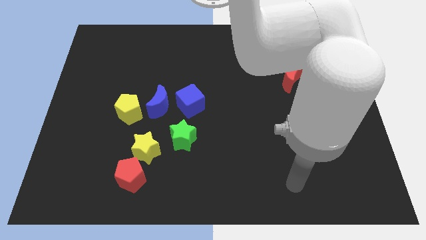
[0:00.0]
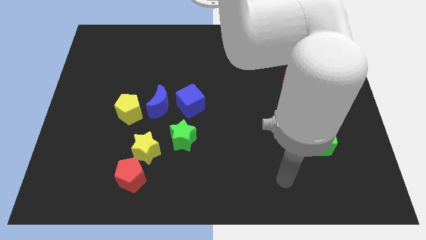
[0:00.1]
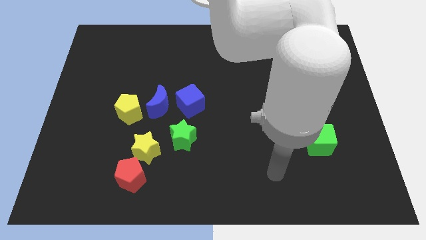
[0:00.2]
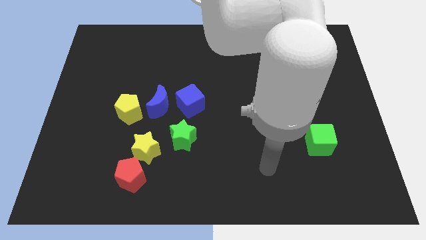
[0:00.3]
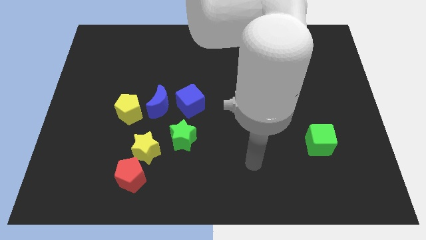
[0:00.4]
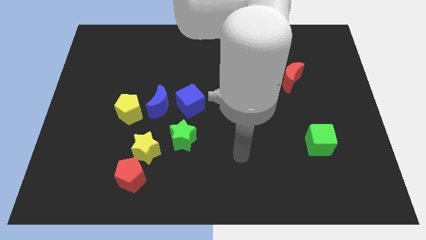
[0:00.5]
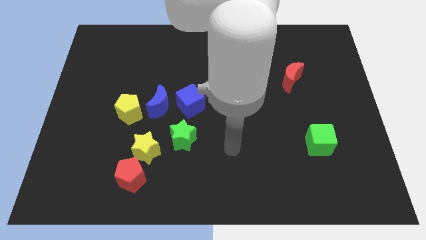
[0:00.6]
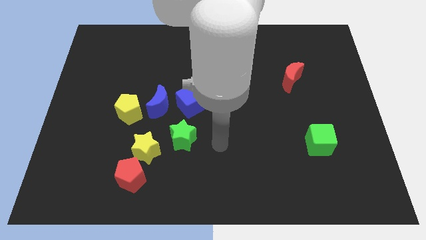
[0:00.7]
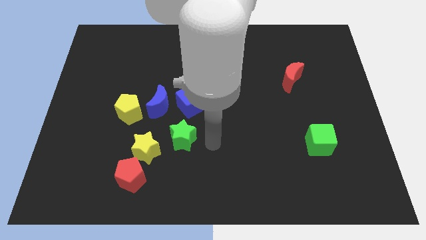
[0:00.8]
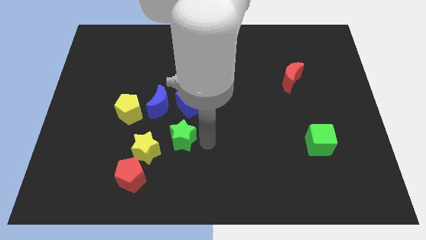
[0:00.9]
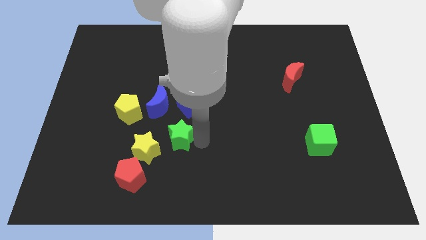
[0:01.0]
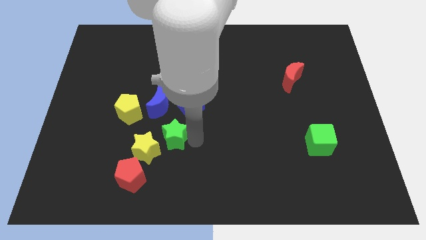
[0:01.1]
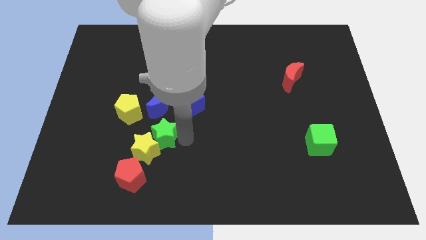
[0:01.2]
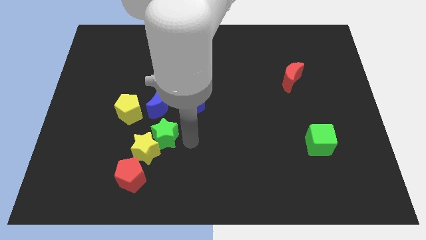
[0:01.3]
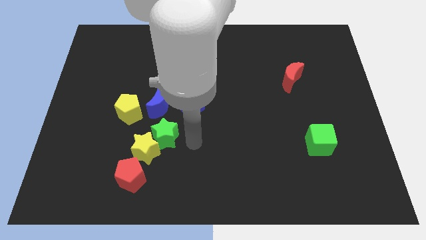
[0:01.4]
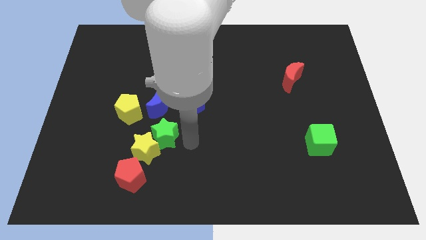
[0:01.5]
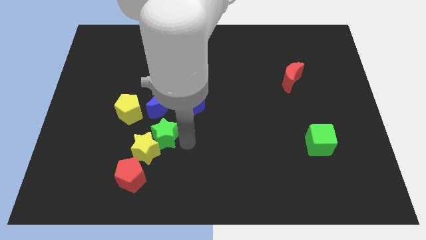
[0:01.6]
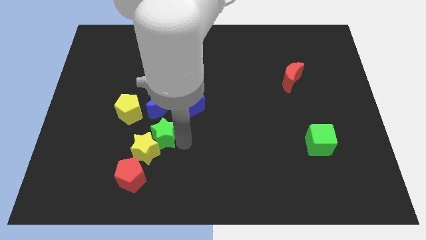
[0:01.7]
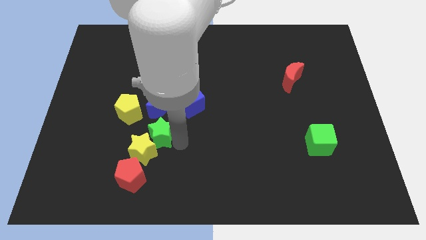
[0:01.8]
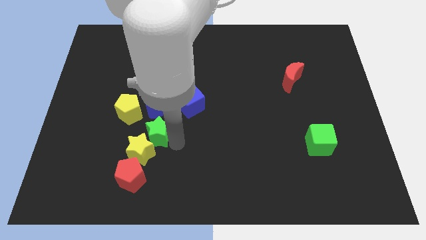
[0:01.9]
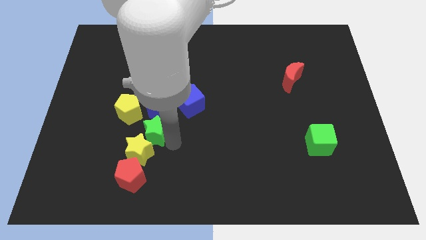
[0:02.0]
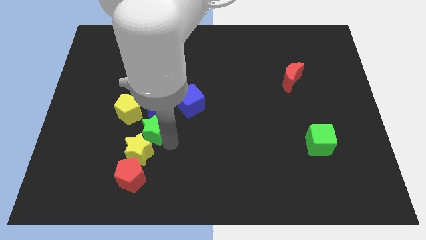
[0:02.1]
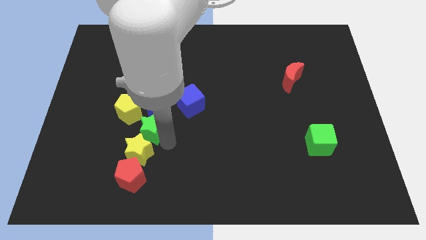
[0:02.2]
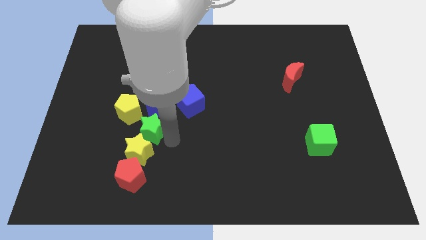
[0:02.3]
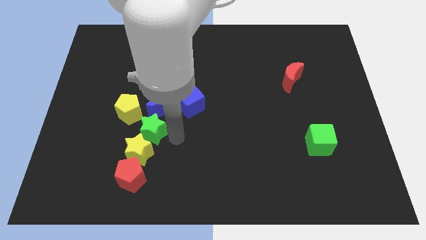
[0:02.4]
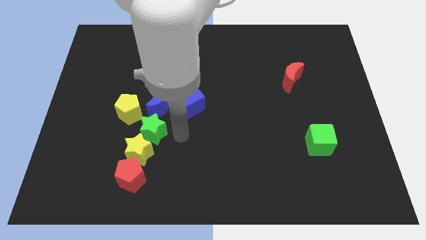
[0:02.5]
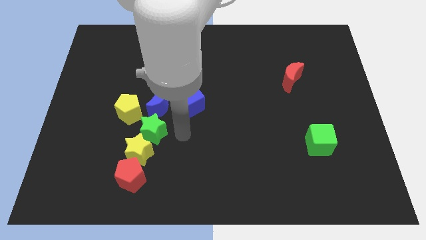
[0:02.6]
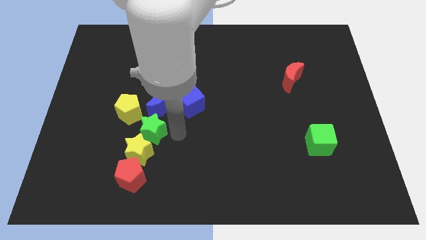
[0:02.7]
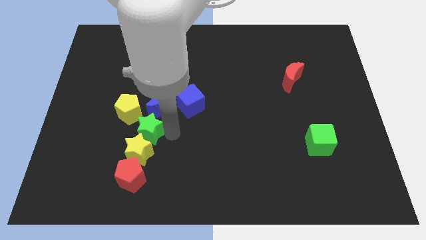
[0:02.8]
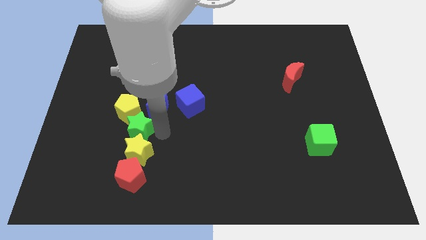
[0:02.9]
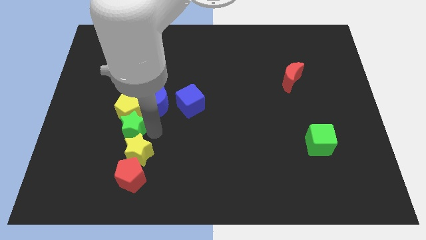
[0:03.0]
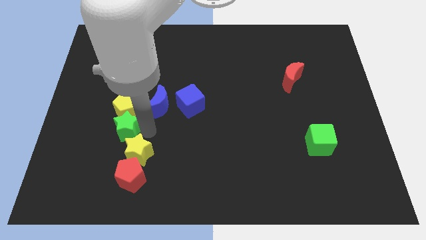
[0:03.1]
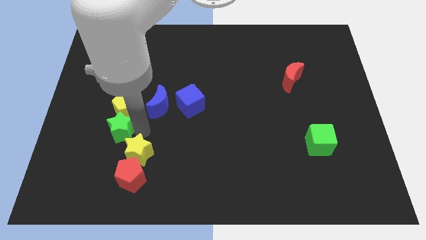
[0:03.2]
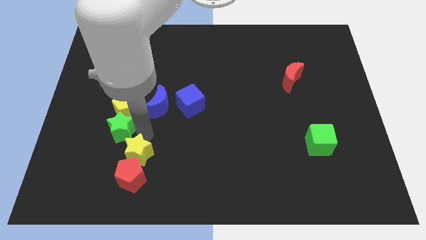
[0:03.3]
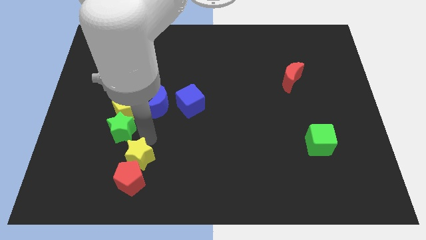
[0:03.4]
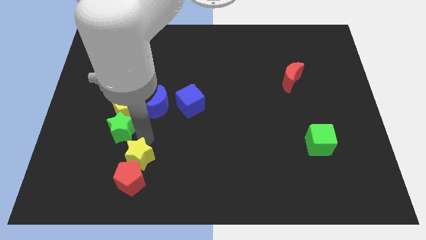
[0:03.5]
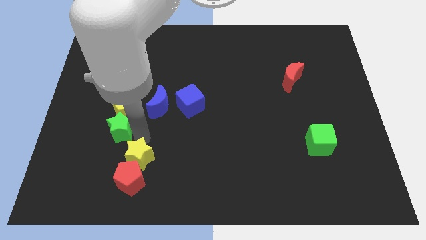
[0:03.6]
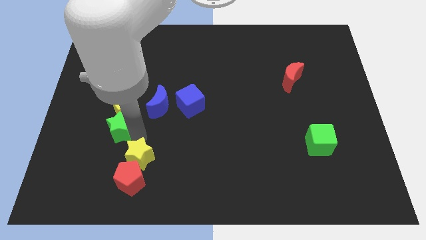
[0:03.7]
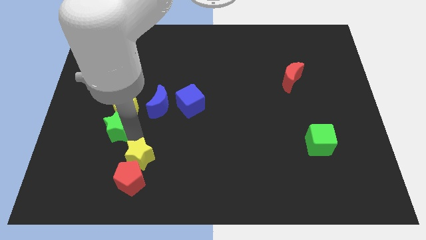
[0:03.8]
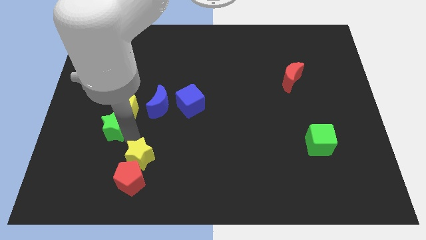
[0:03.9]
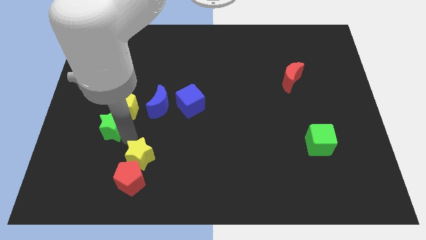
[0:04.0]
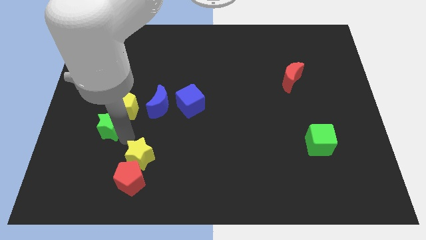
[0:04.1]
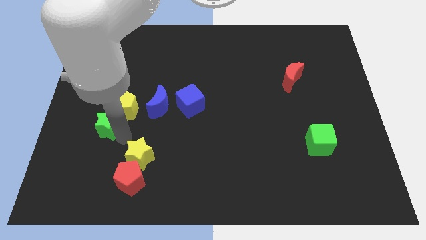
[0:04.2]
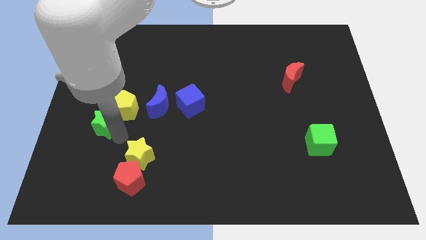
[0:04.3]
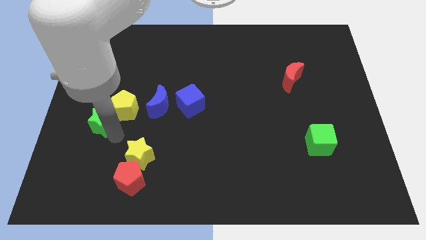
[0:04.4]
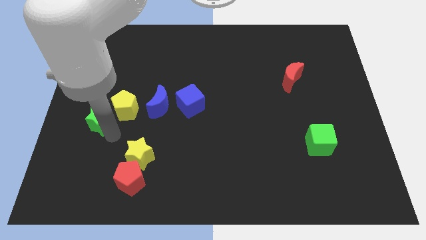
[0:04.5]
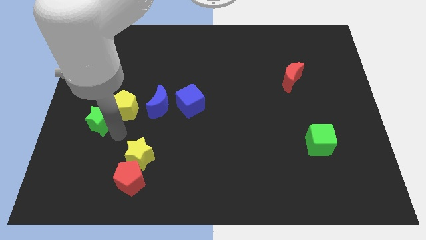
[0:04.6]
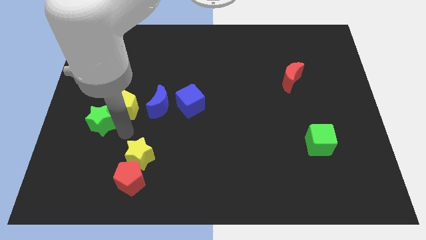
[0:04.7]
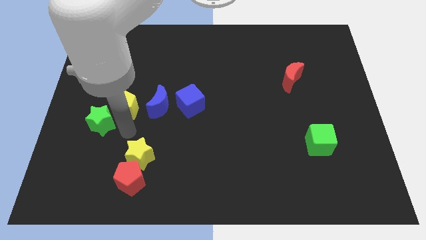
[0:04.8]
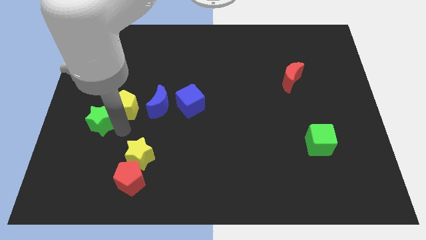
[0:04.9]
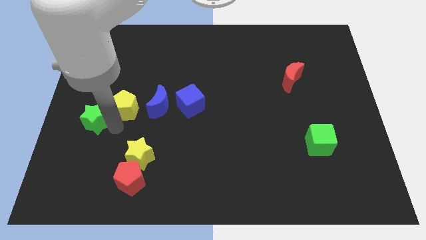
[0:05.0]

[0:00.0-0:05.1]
push the green star to the left side of the board

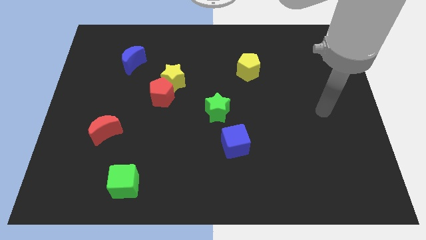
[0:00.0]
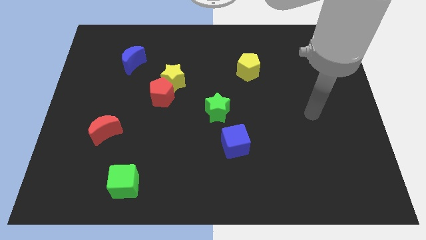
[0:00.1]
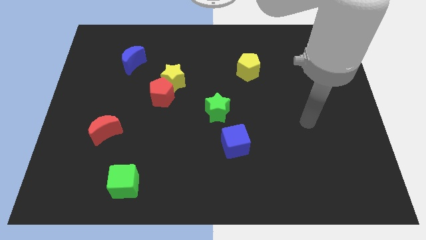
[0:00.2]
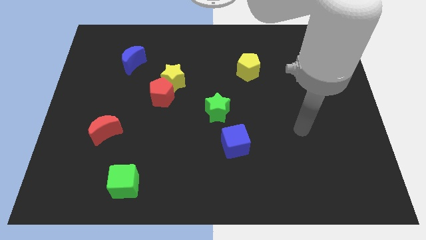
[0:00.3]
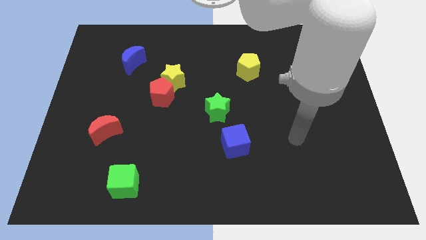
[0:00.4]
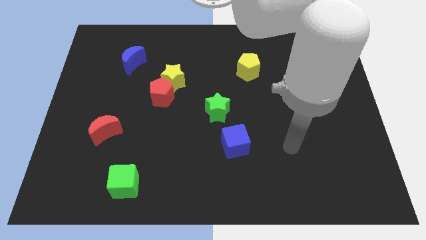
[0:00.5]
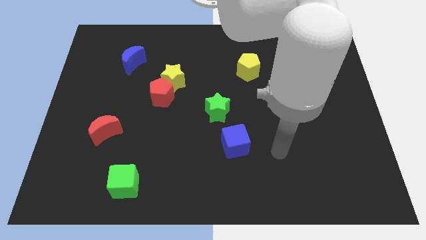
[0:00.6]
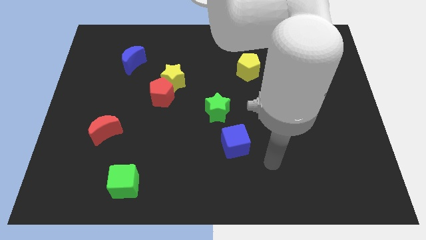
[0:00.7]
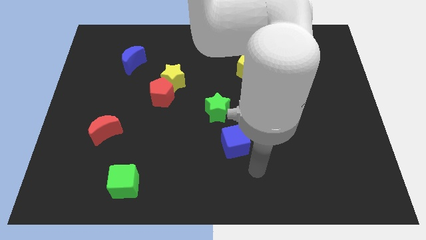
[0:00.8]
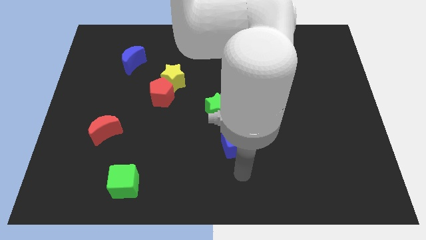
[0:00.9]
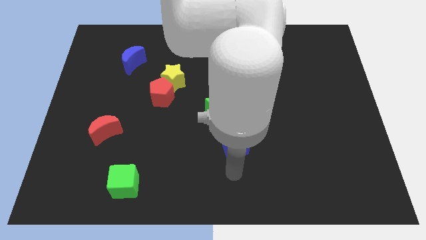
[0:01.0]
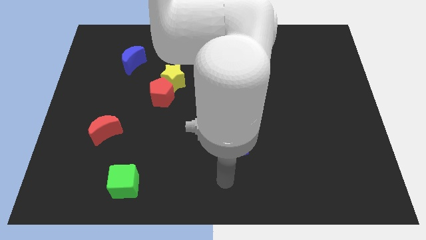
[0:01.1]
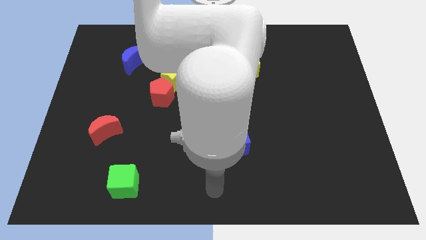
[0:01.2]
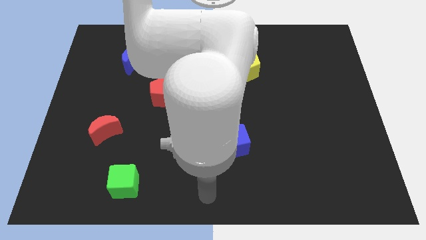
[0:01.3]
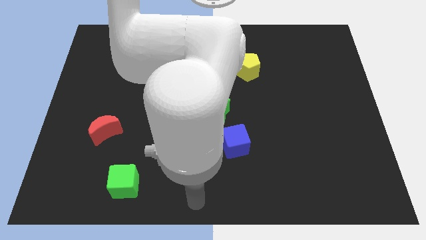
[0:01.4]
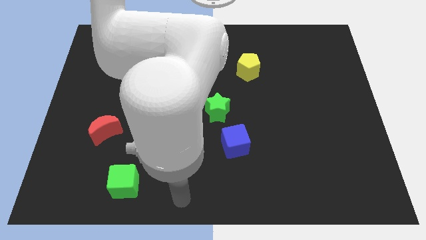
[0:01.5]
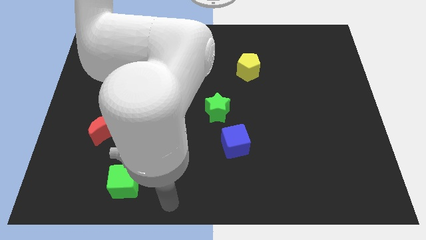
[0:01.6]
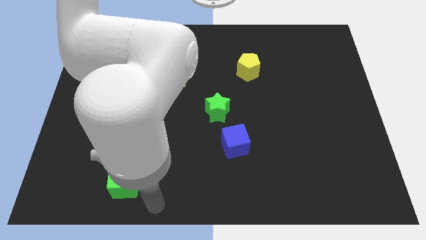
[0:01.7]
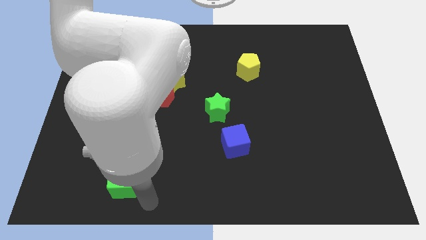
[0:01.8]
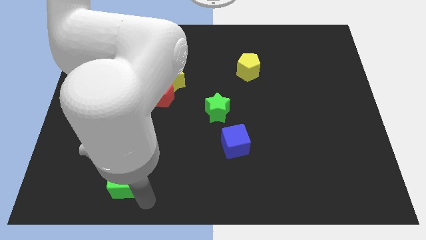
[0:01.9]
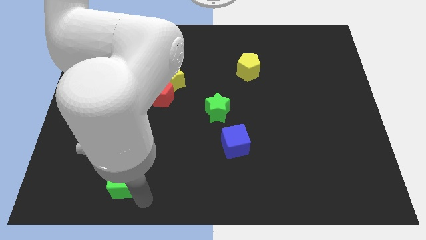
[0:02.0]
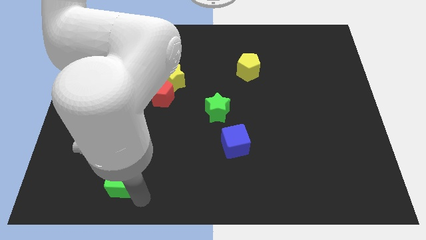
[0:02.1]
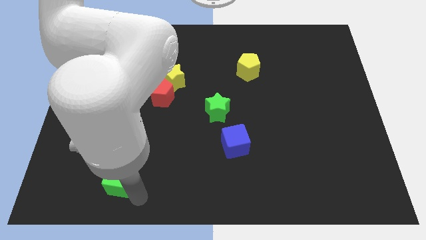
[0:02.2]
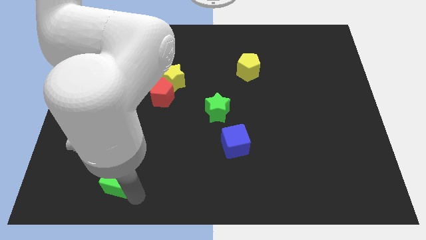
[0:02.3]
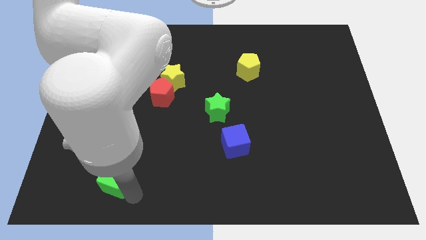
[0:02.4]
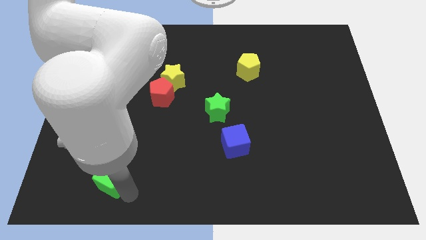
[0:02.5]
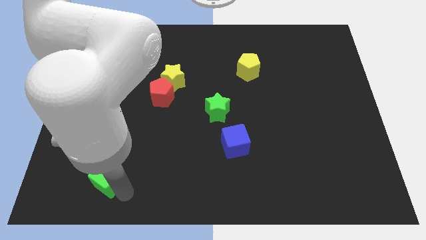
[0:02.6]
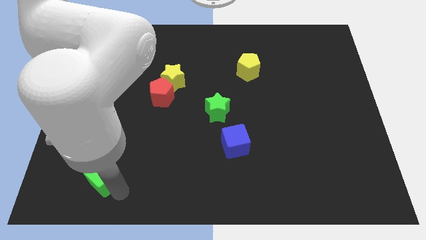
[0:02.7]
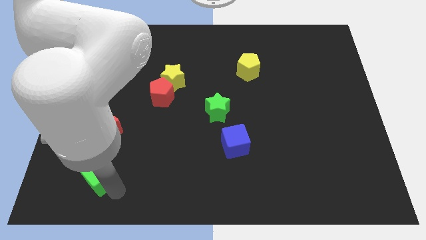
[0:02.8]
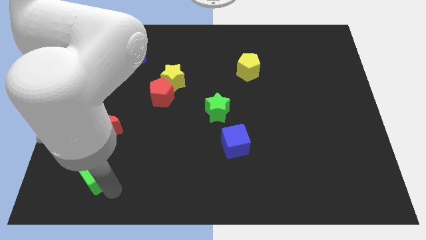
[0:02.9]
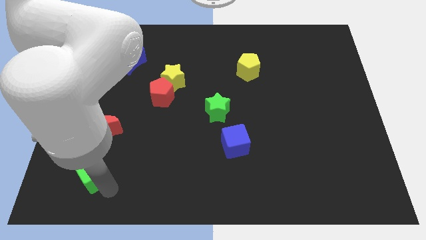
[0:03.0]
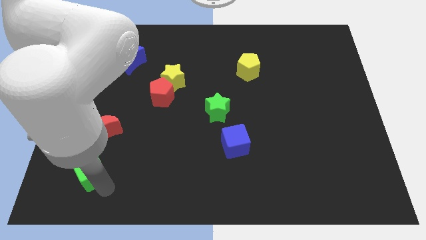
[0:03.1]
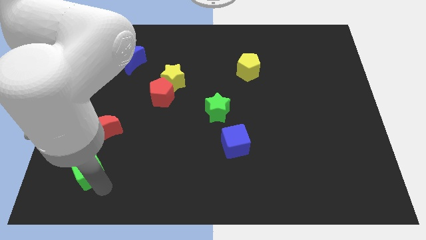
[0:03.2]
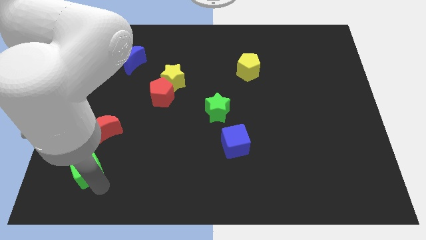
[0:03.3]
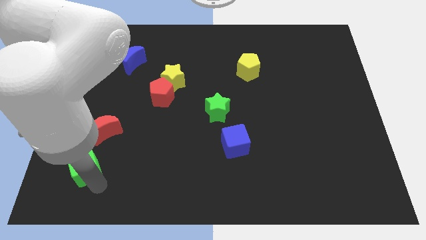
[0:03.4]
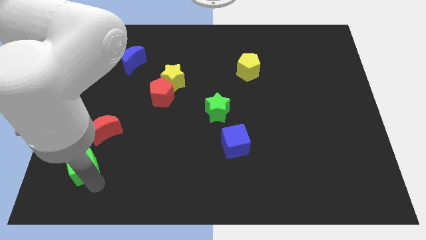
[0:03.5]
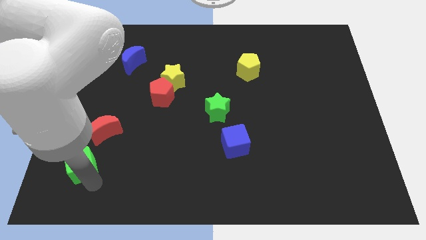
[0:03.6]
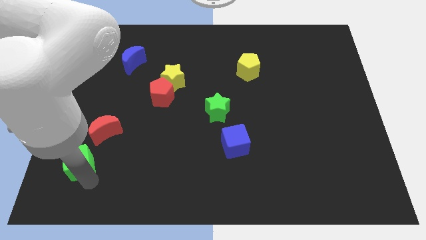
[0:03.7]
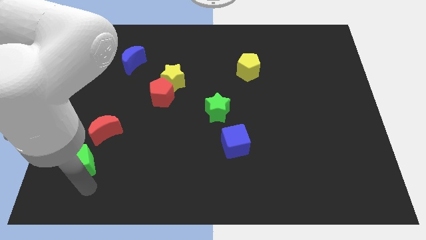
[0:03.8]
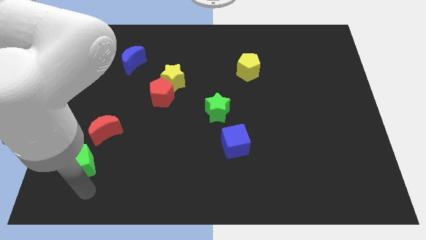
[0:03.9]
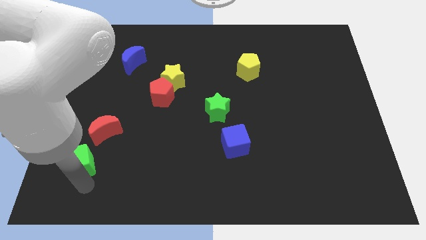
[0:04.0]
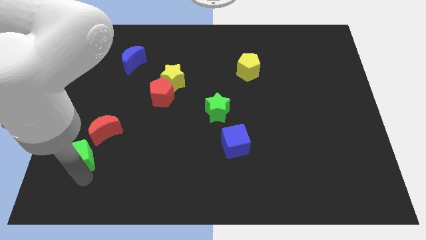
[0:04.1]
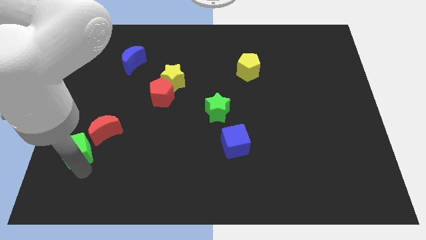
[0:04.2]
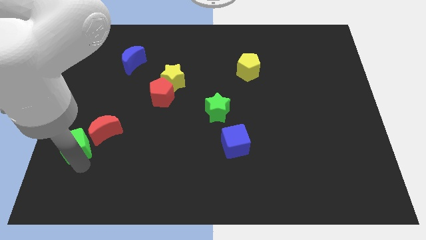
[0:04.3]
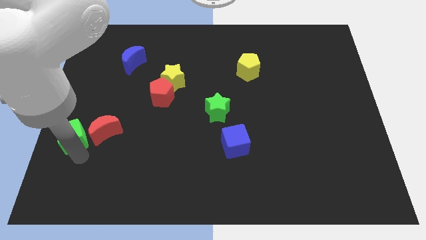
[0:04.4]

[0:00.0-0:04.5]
slide the green cube to the left side
